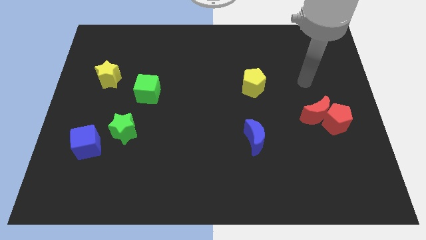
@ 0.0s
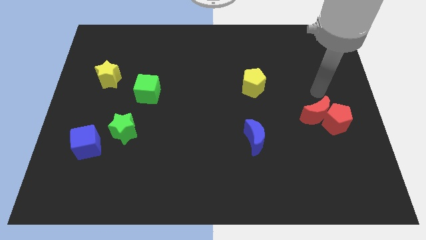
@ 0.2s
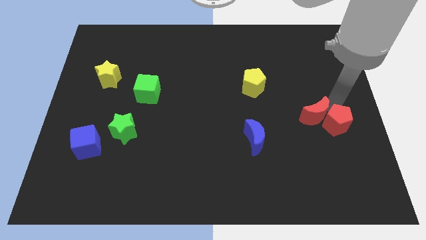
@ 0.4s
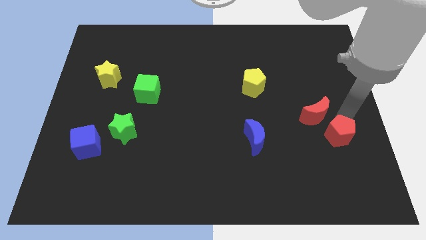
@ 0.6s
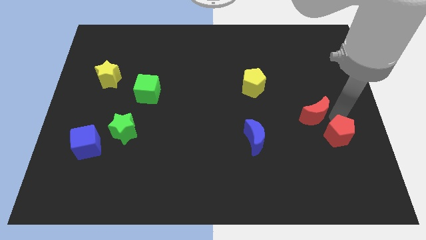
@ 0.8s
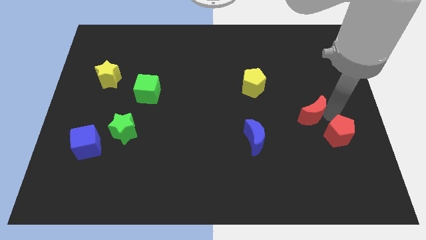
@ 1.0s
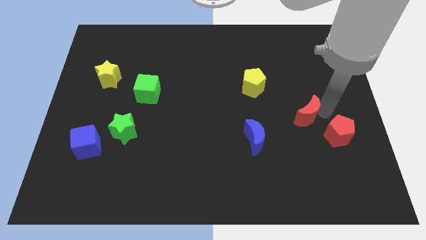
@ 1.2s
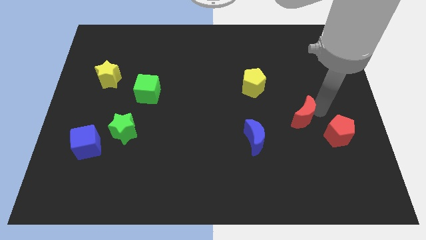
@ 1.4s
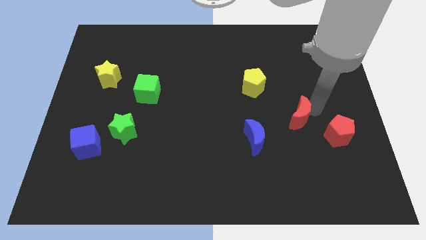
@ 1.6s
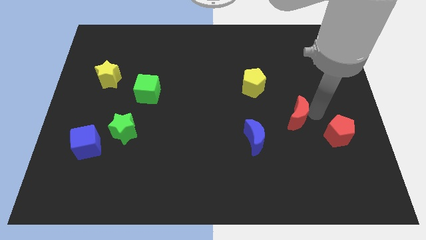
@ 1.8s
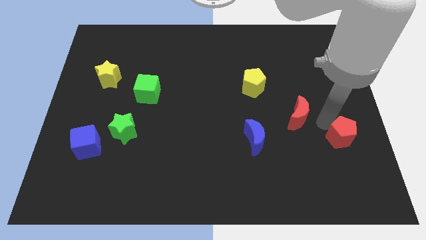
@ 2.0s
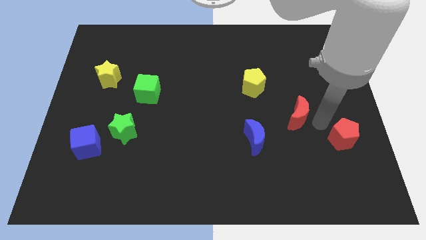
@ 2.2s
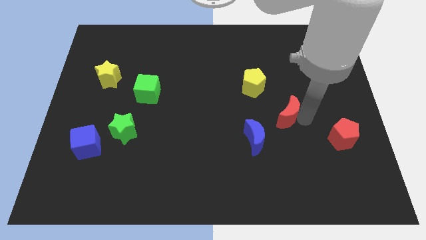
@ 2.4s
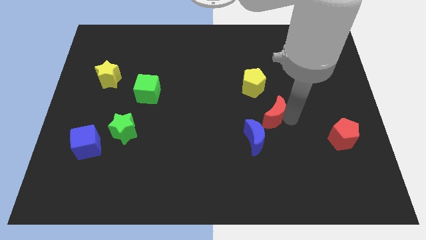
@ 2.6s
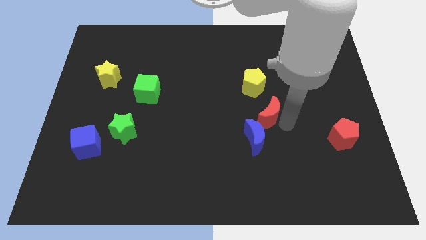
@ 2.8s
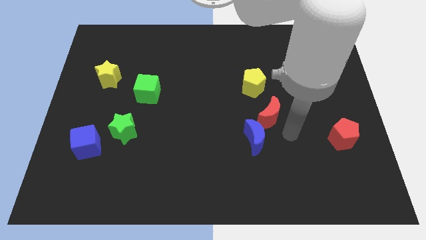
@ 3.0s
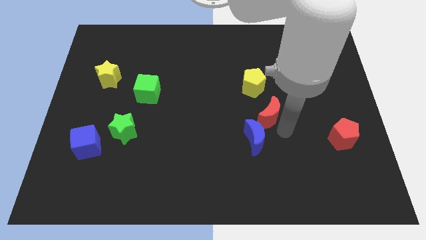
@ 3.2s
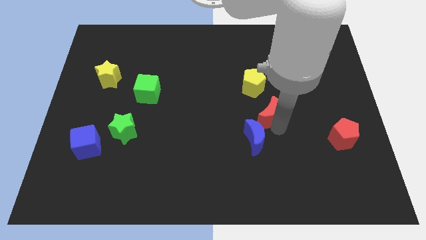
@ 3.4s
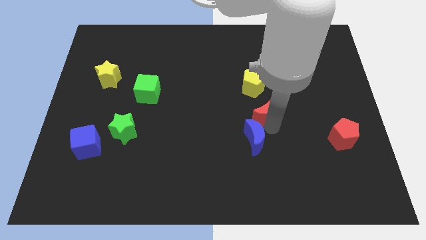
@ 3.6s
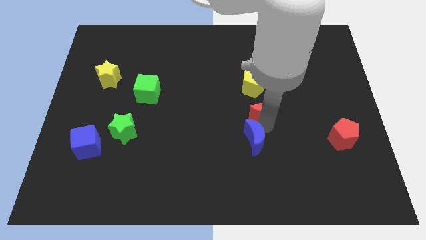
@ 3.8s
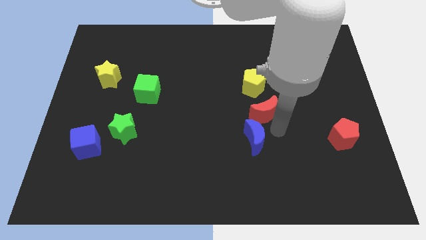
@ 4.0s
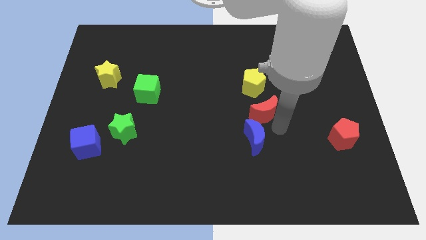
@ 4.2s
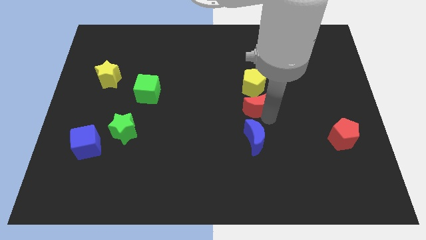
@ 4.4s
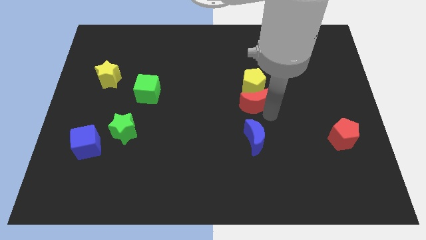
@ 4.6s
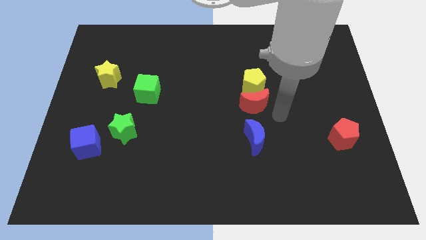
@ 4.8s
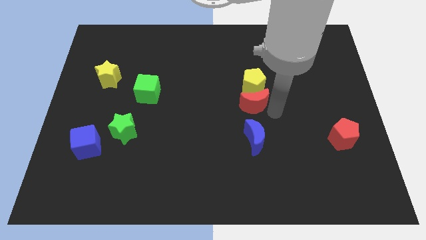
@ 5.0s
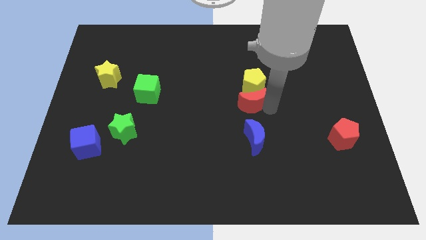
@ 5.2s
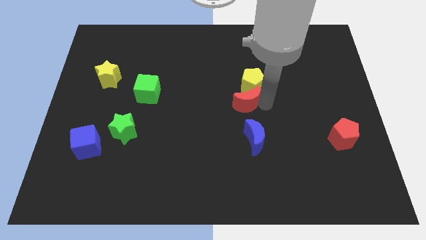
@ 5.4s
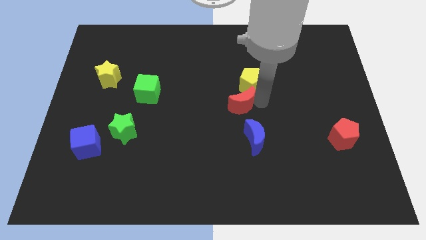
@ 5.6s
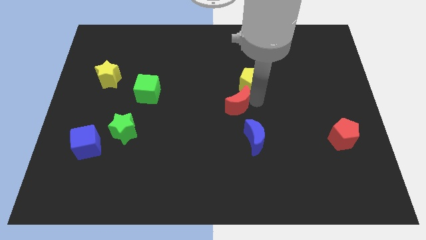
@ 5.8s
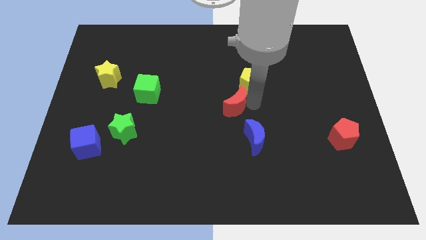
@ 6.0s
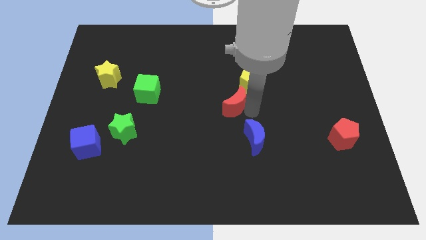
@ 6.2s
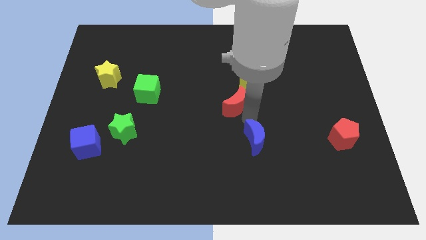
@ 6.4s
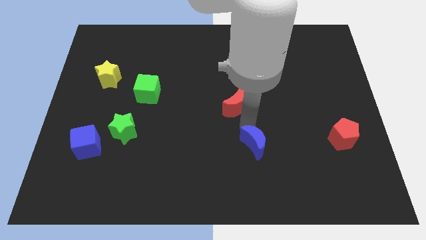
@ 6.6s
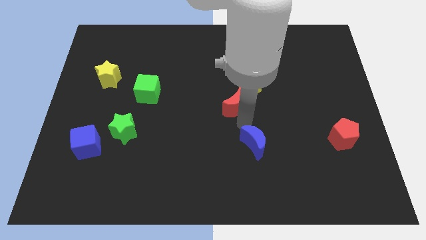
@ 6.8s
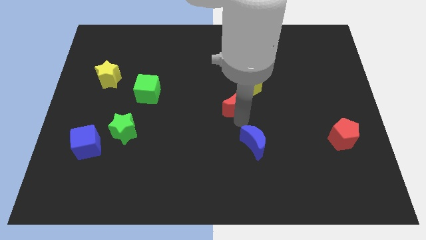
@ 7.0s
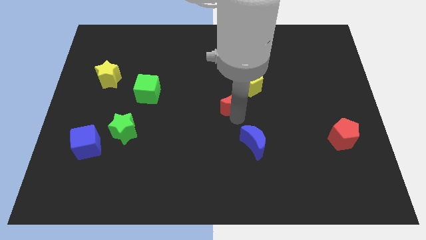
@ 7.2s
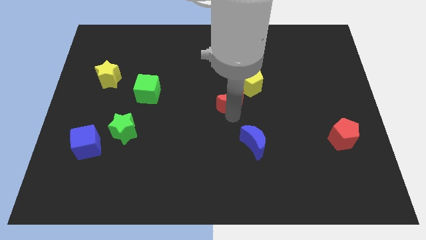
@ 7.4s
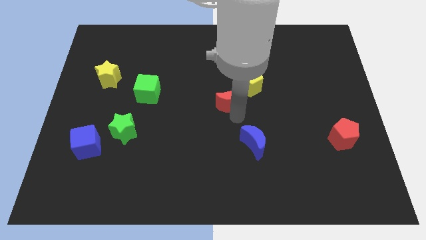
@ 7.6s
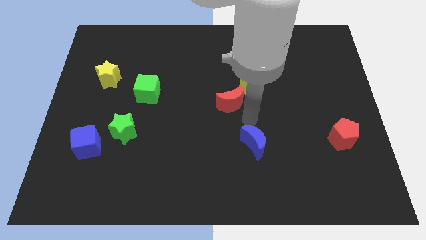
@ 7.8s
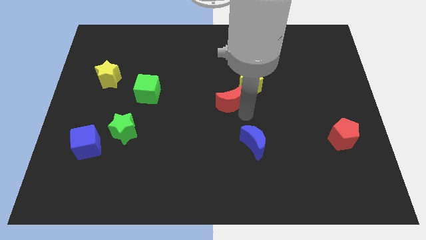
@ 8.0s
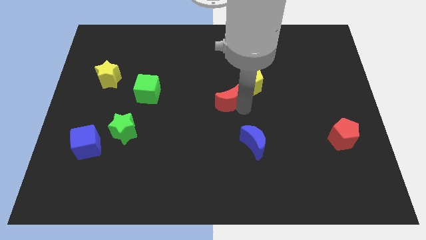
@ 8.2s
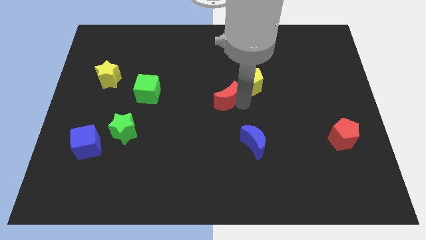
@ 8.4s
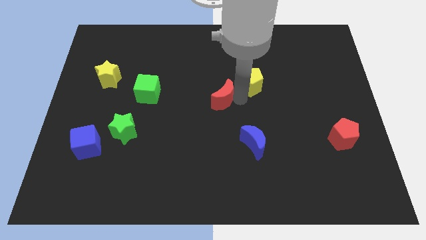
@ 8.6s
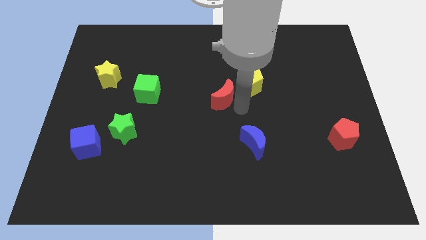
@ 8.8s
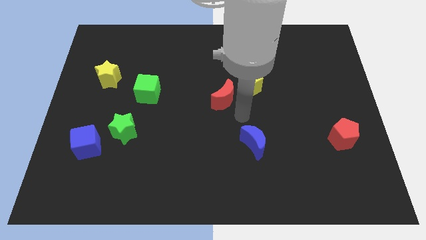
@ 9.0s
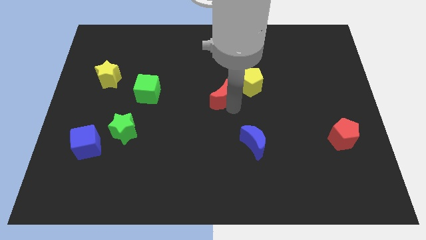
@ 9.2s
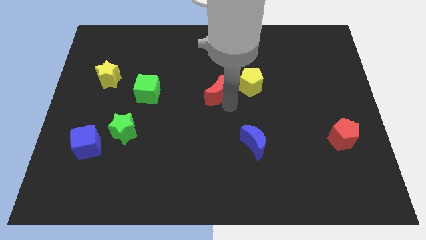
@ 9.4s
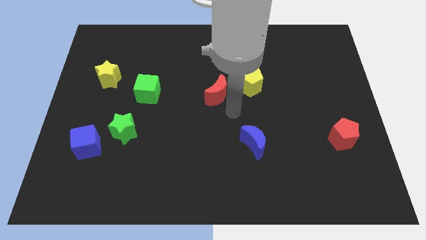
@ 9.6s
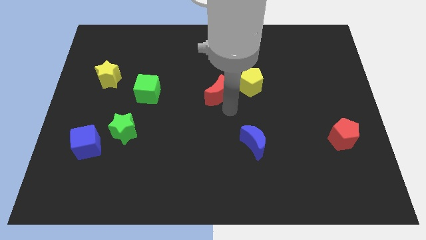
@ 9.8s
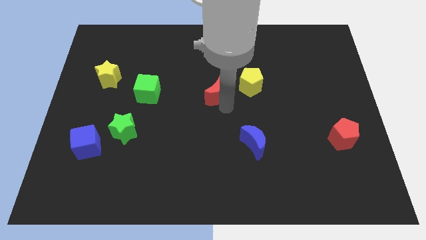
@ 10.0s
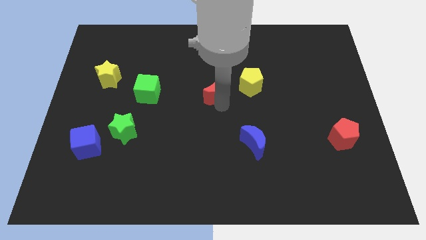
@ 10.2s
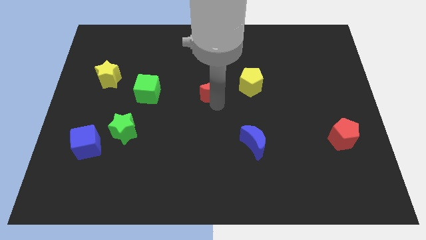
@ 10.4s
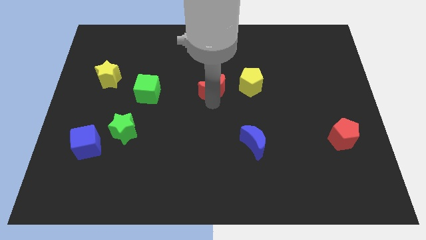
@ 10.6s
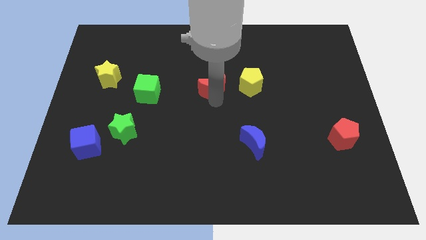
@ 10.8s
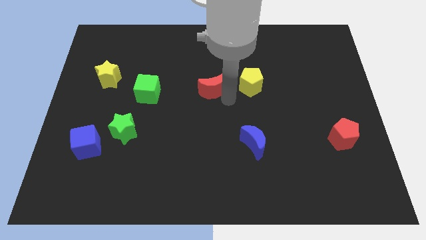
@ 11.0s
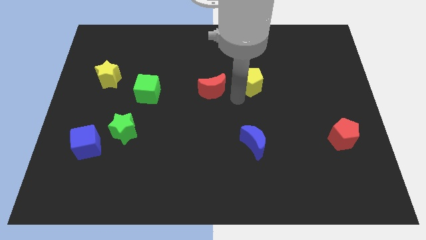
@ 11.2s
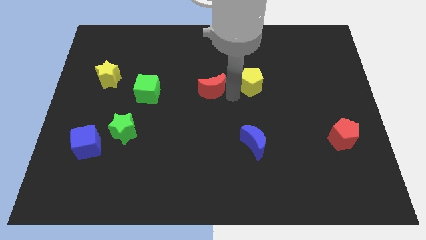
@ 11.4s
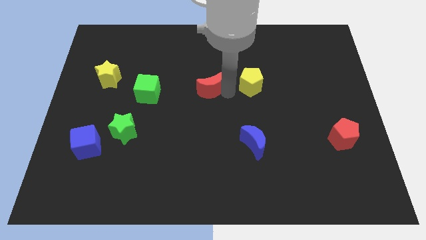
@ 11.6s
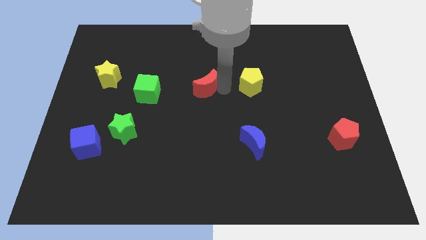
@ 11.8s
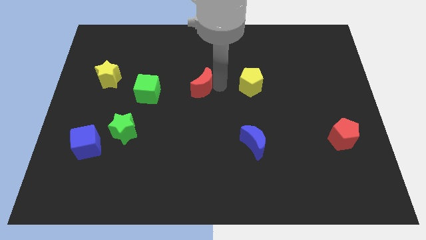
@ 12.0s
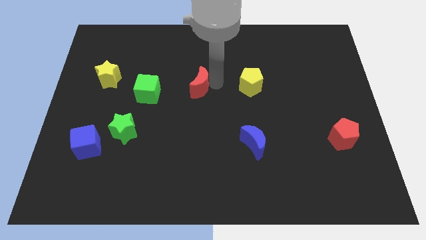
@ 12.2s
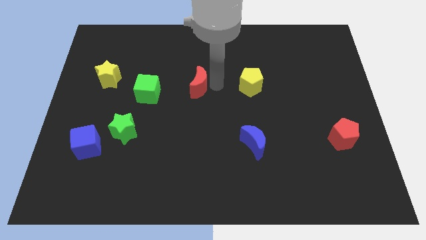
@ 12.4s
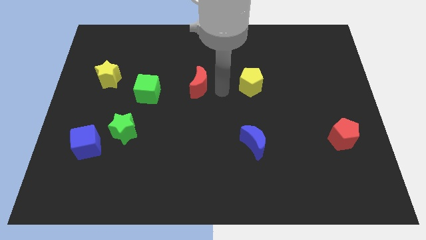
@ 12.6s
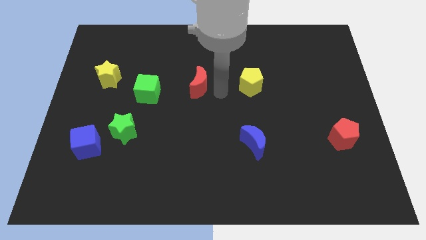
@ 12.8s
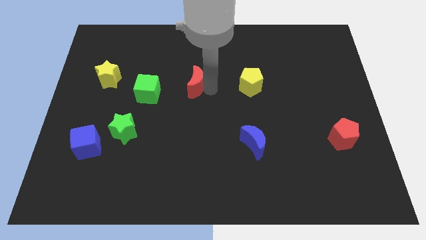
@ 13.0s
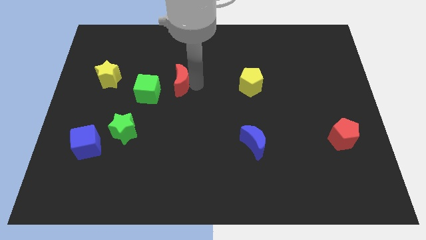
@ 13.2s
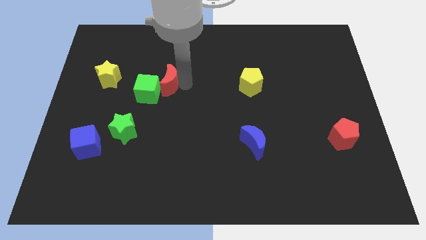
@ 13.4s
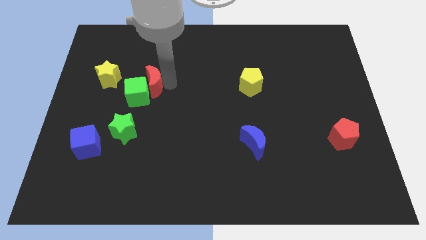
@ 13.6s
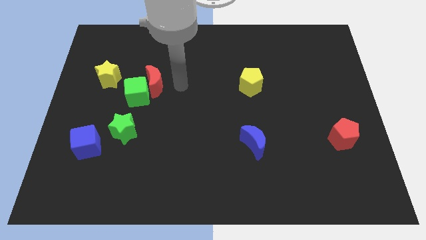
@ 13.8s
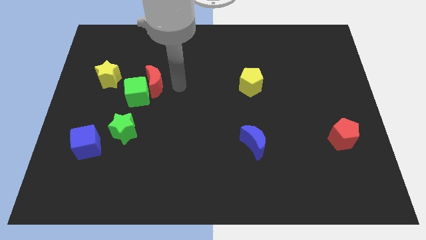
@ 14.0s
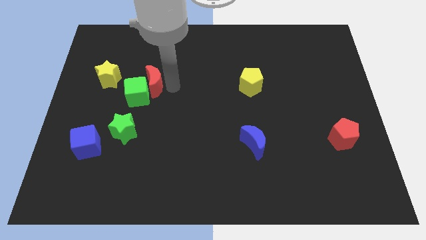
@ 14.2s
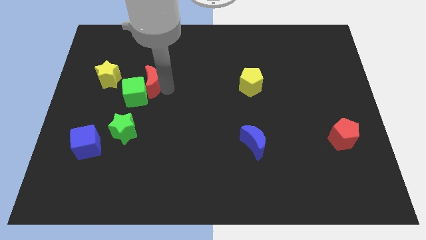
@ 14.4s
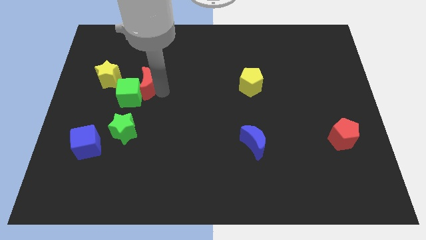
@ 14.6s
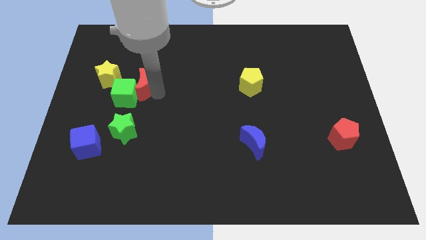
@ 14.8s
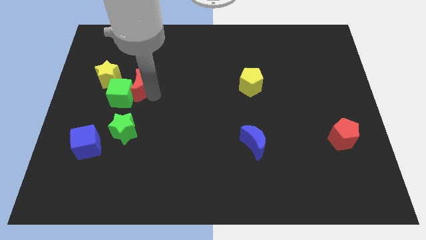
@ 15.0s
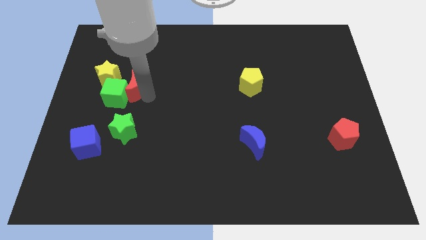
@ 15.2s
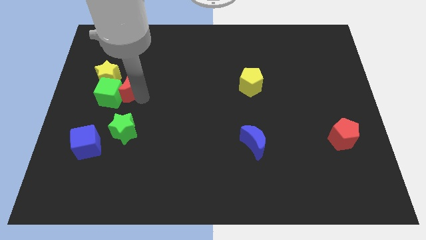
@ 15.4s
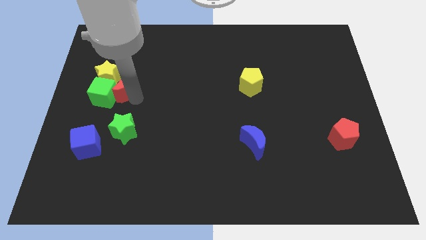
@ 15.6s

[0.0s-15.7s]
move the red moon close to the yellow star
